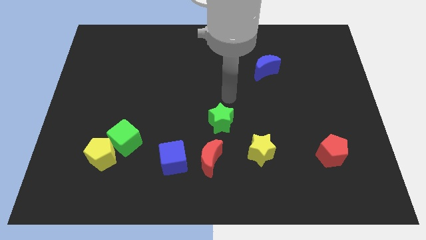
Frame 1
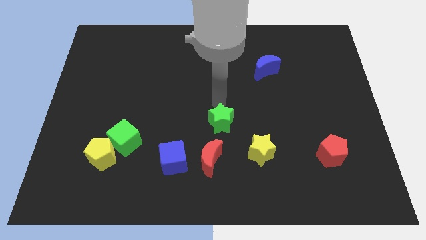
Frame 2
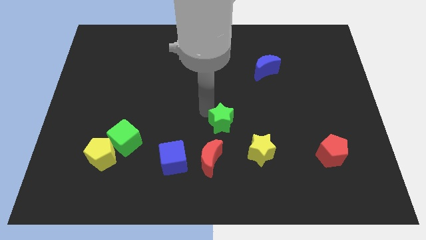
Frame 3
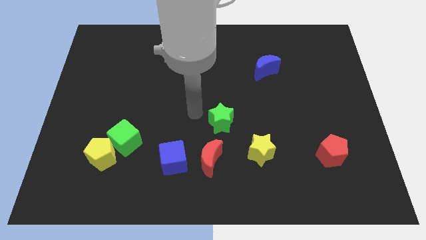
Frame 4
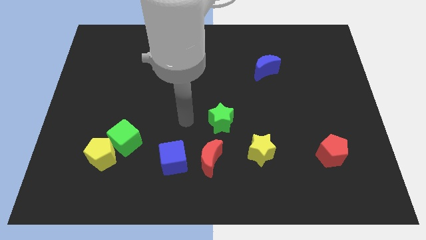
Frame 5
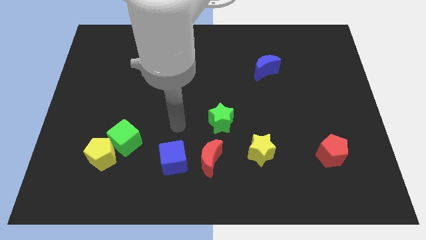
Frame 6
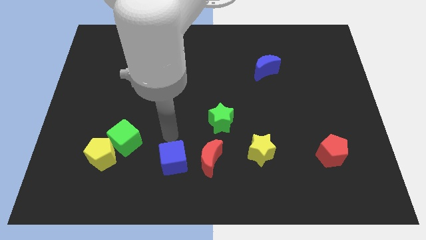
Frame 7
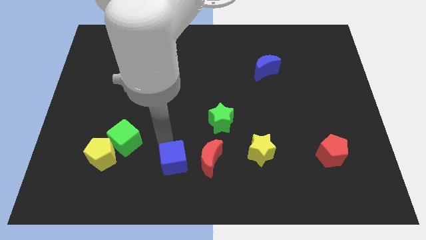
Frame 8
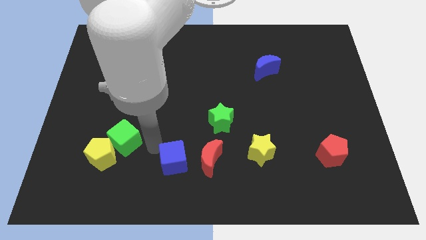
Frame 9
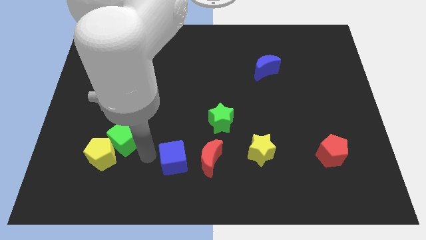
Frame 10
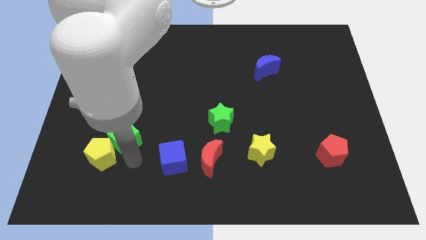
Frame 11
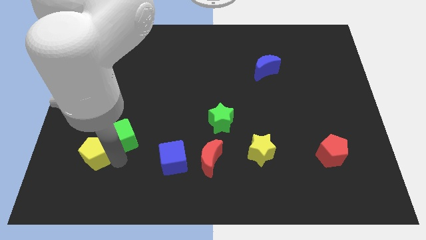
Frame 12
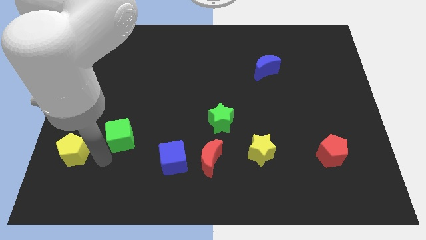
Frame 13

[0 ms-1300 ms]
move the green cube away from the yellow pentagon

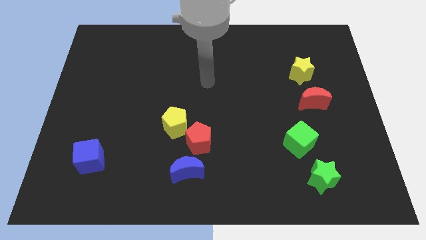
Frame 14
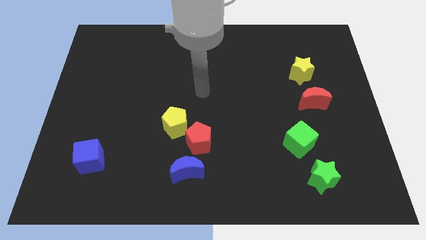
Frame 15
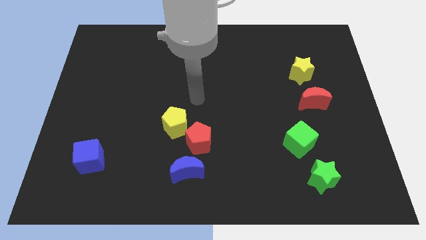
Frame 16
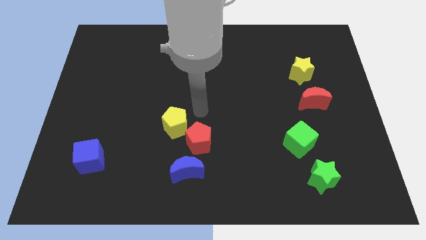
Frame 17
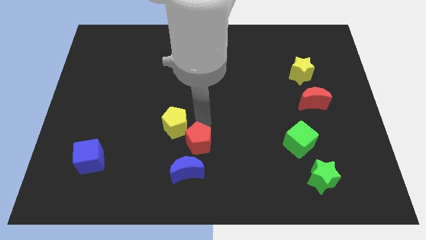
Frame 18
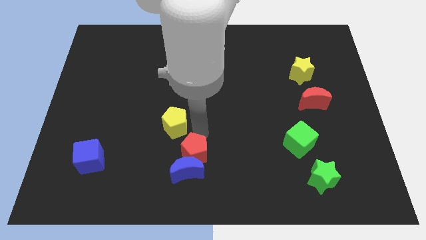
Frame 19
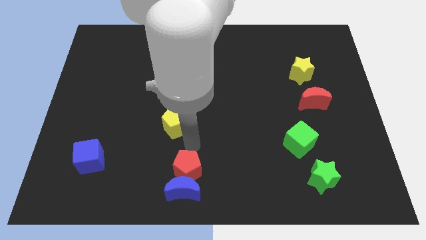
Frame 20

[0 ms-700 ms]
pull the yellow pentagon apart from the red pentagon

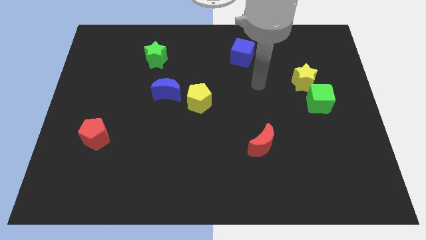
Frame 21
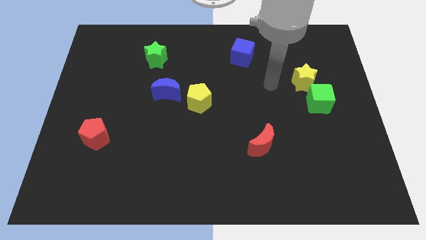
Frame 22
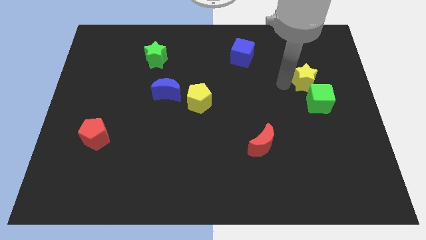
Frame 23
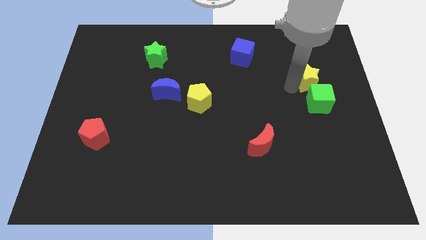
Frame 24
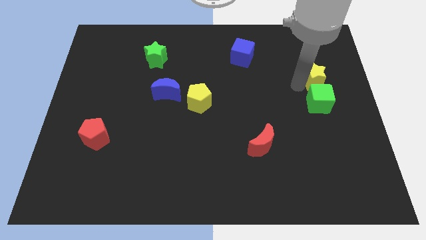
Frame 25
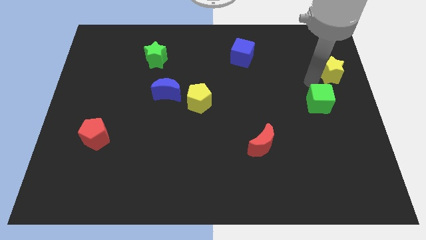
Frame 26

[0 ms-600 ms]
move the green cube away from the yellow star

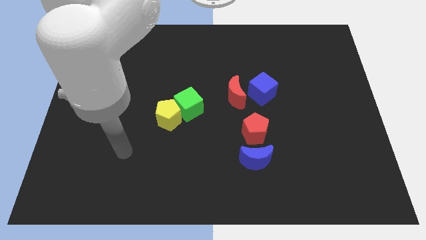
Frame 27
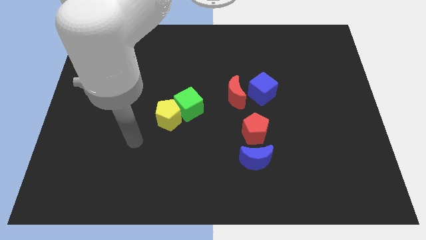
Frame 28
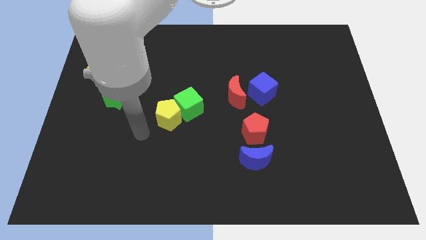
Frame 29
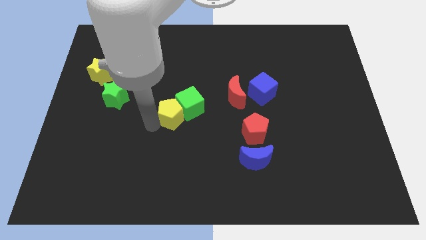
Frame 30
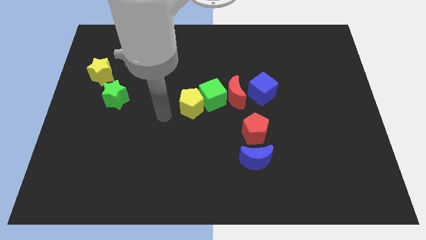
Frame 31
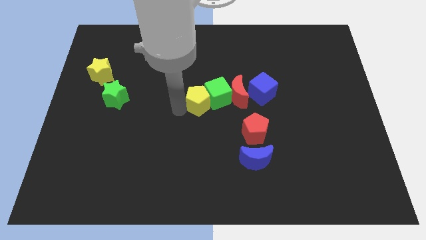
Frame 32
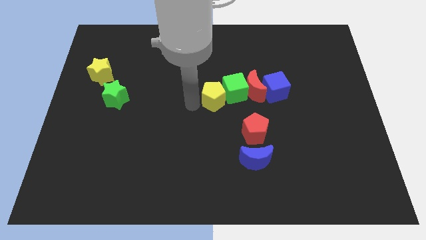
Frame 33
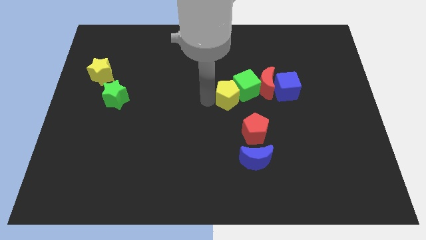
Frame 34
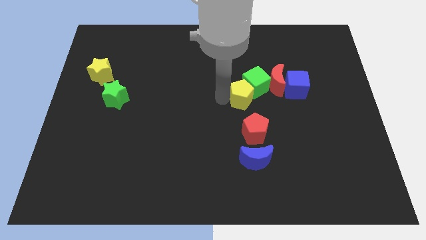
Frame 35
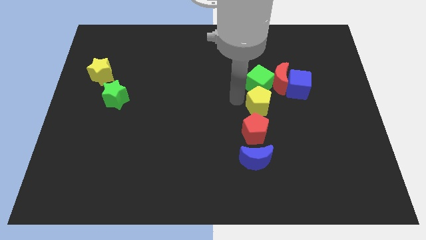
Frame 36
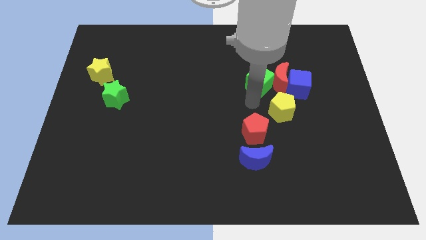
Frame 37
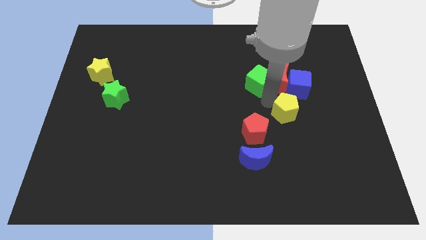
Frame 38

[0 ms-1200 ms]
separate the green cube from the yellow pentagon

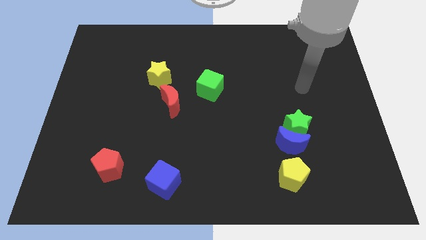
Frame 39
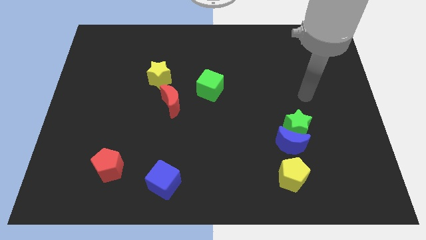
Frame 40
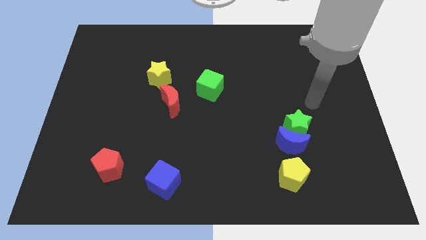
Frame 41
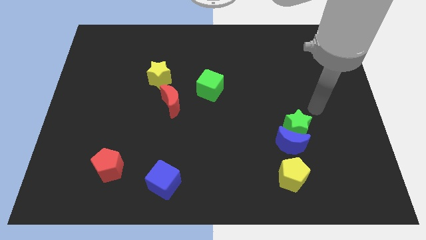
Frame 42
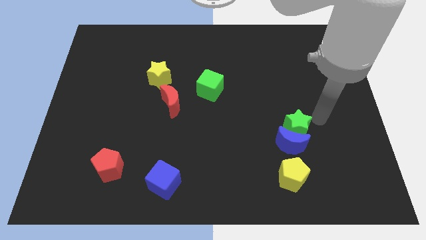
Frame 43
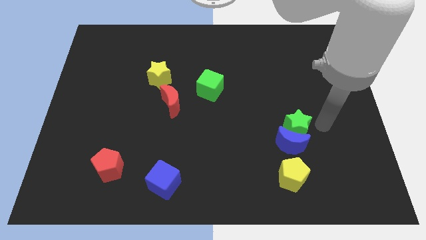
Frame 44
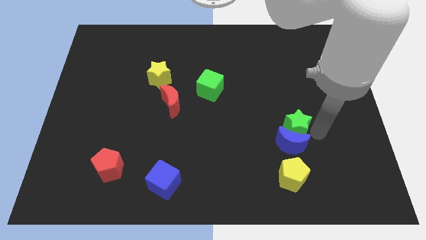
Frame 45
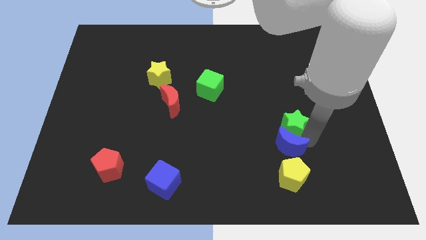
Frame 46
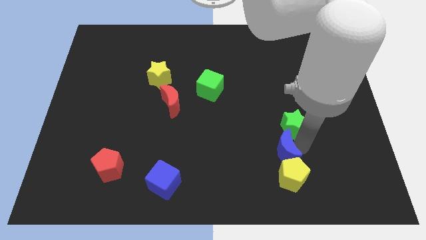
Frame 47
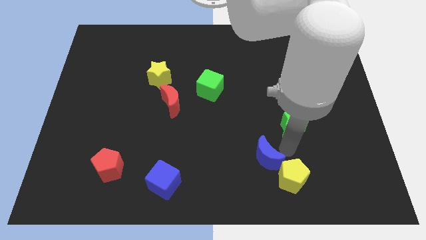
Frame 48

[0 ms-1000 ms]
move the green star away from the blue moon

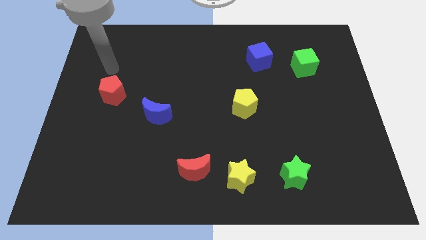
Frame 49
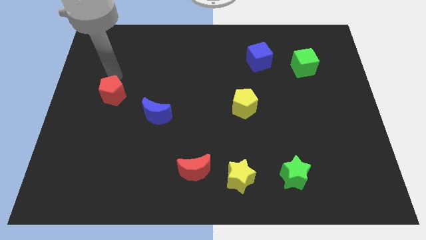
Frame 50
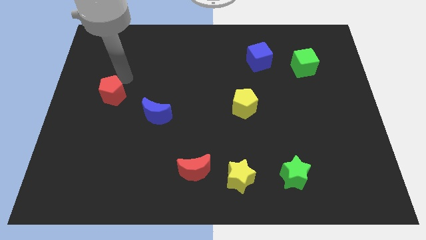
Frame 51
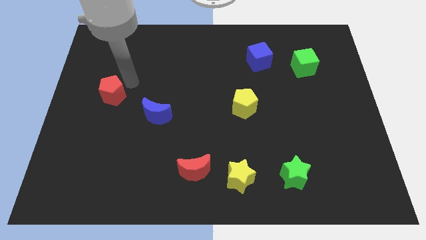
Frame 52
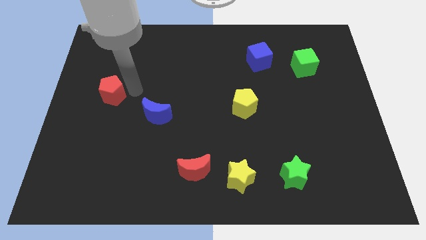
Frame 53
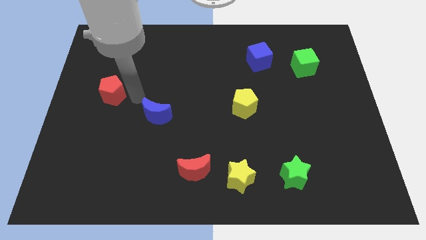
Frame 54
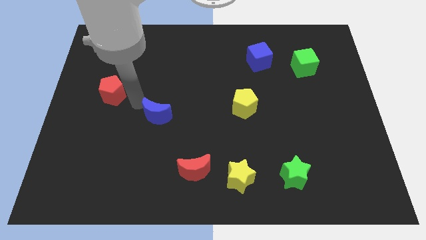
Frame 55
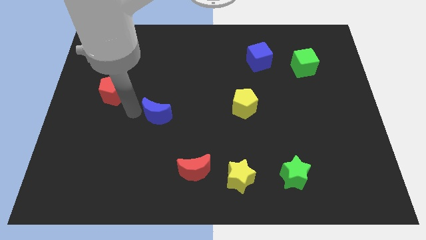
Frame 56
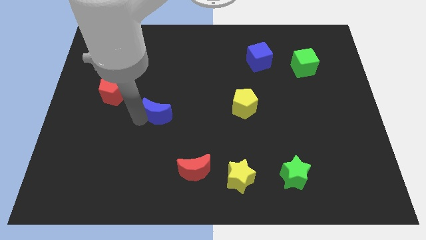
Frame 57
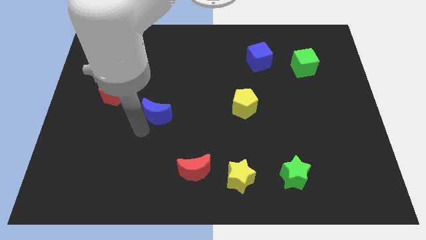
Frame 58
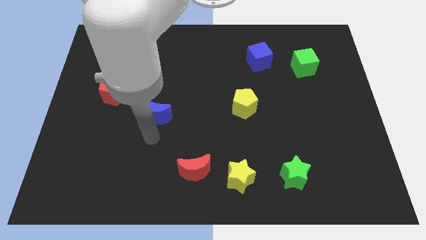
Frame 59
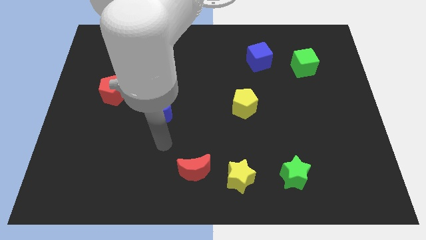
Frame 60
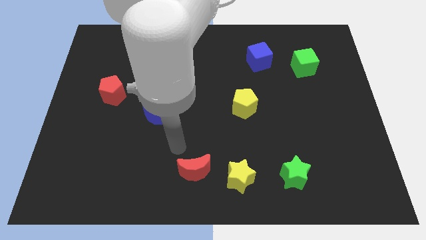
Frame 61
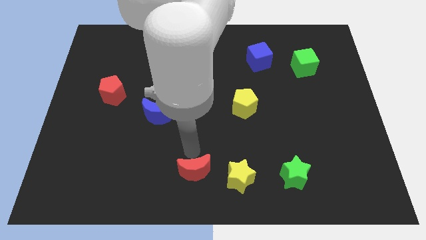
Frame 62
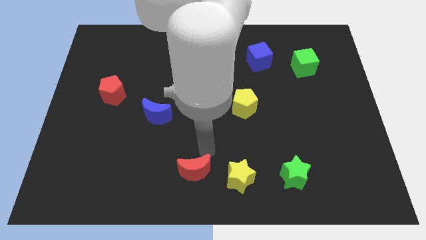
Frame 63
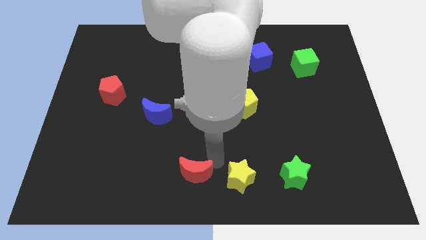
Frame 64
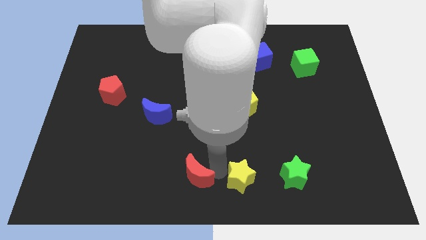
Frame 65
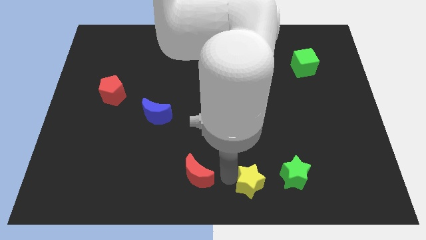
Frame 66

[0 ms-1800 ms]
pull the red moon apart from the yellow star

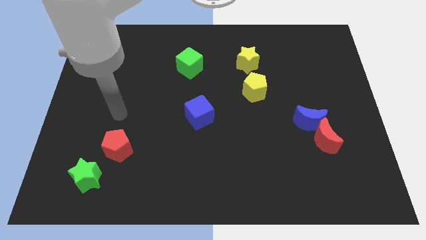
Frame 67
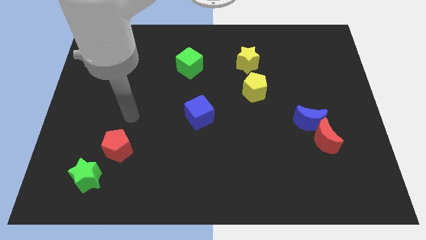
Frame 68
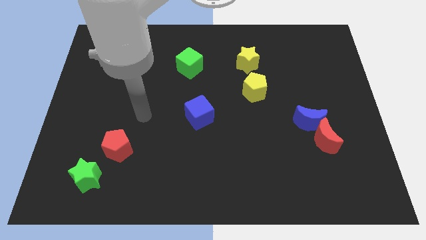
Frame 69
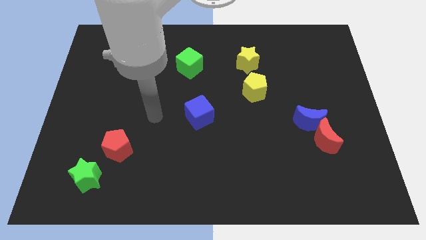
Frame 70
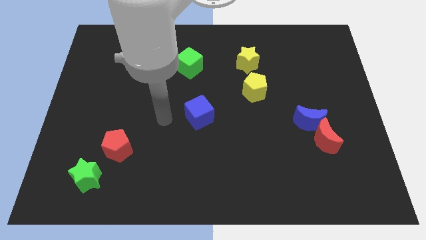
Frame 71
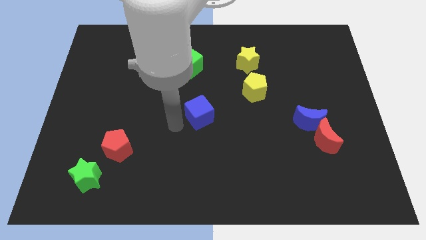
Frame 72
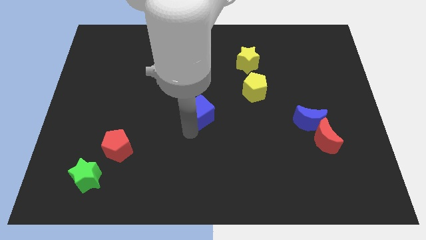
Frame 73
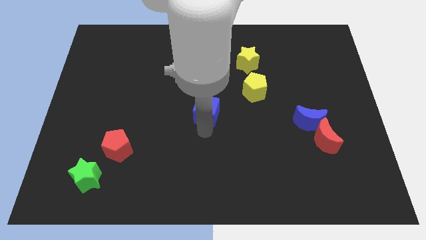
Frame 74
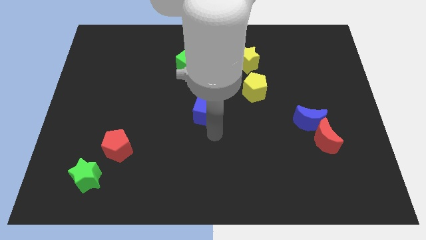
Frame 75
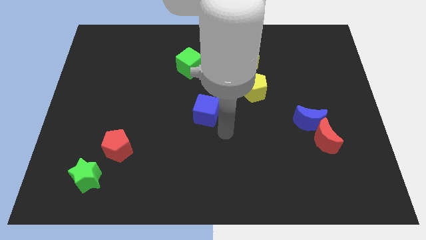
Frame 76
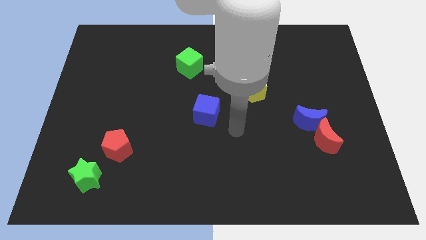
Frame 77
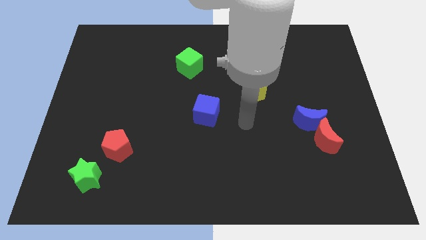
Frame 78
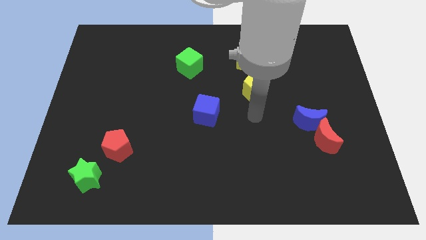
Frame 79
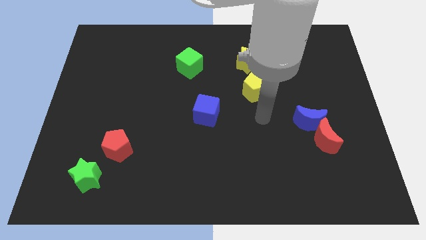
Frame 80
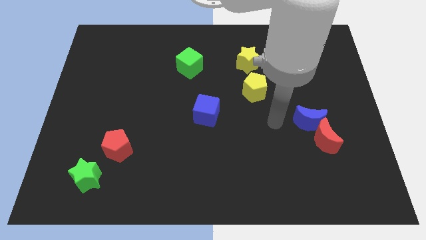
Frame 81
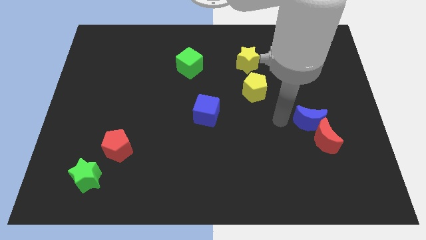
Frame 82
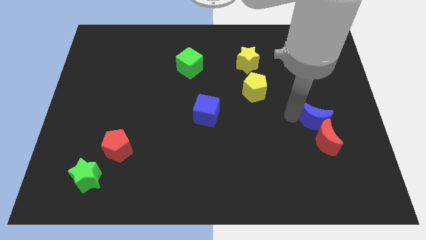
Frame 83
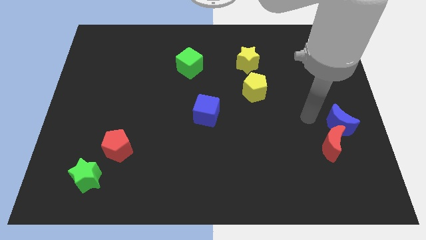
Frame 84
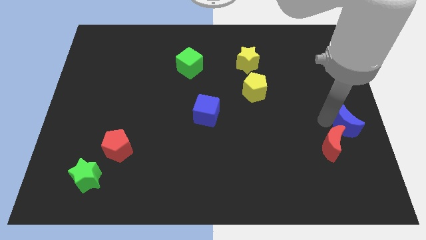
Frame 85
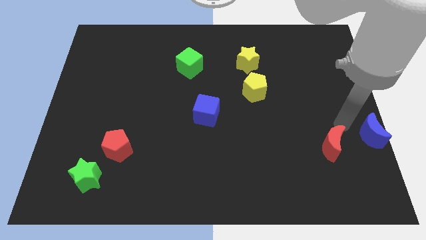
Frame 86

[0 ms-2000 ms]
pull the red moon apart from the blue moon

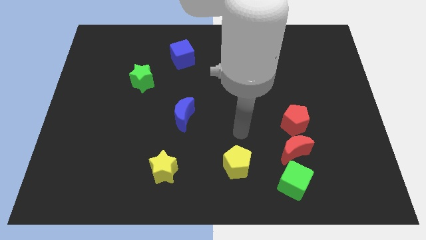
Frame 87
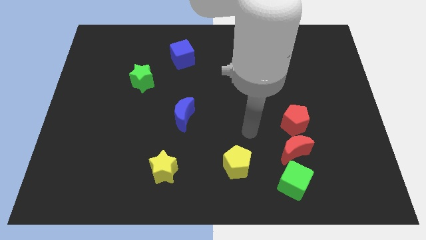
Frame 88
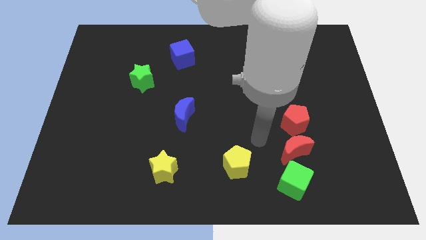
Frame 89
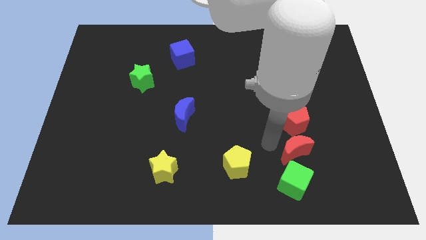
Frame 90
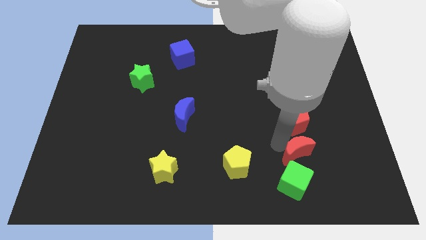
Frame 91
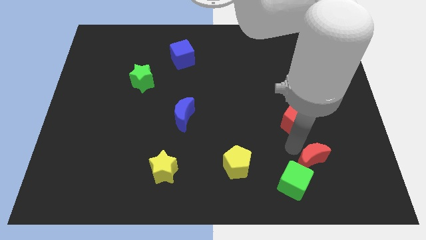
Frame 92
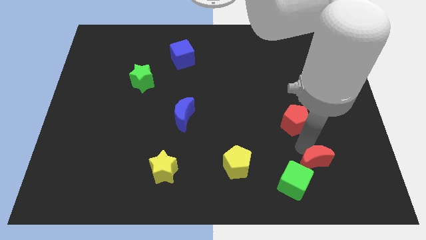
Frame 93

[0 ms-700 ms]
pull the red pentagon apart from the red moon
